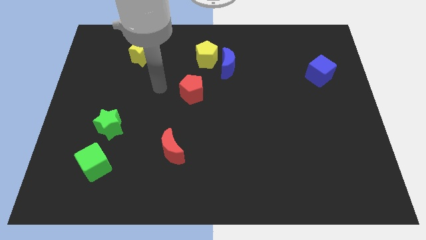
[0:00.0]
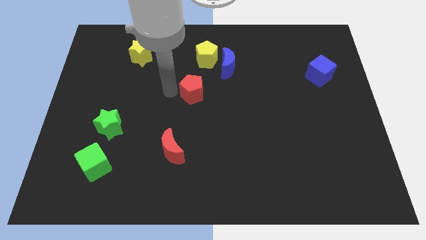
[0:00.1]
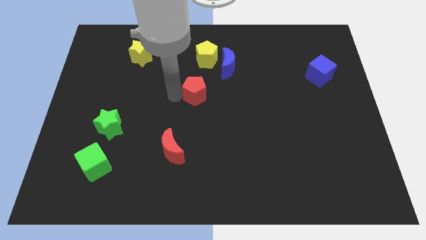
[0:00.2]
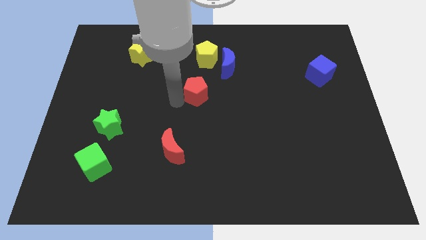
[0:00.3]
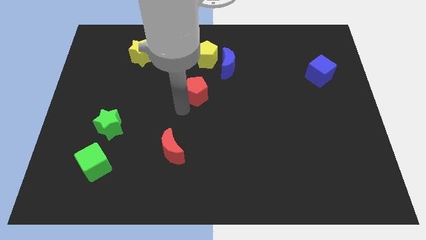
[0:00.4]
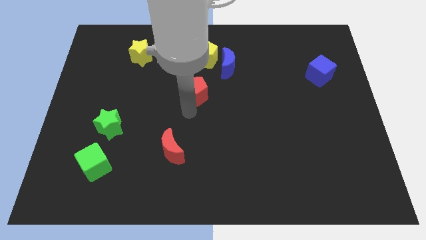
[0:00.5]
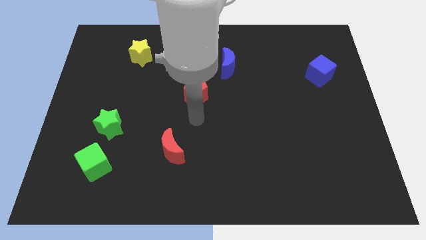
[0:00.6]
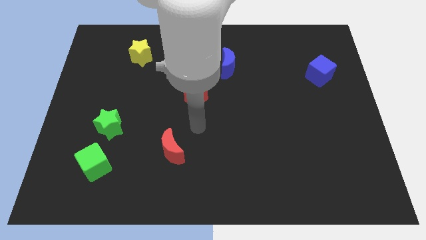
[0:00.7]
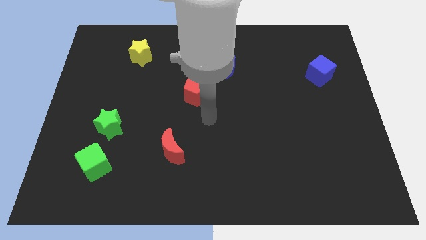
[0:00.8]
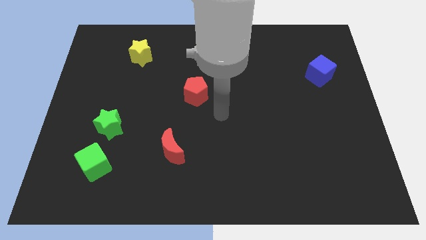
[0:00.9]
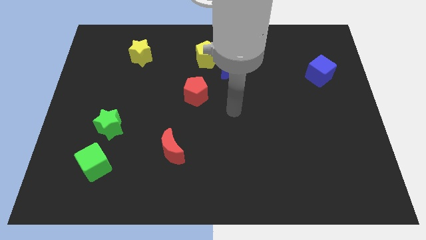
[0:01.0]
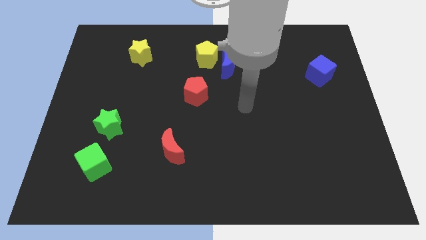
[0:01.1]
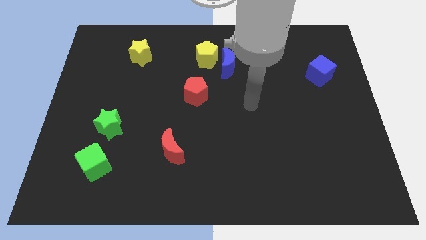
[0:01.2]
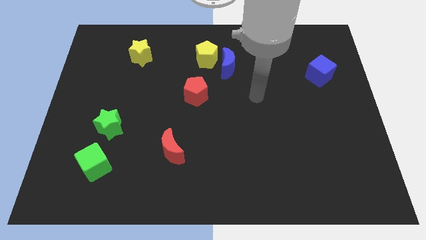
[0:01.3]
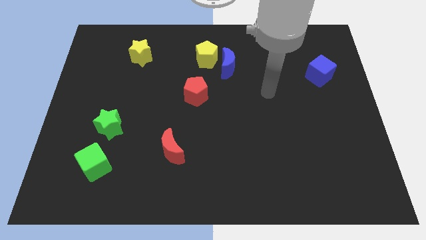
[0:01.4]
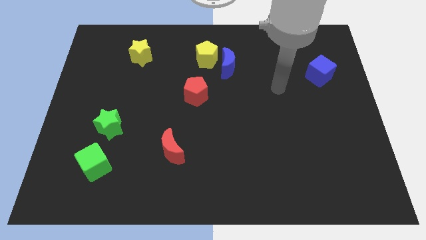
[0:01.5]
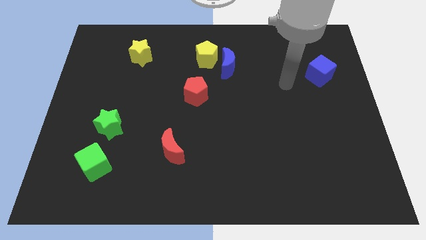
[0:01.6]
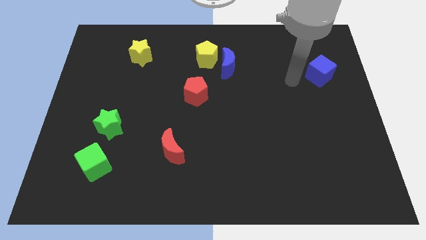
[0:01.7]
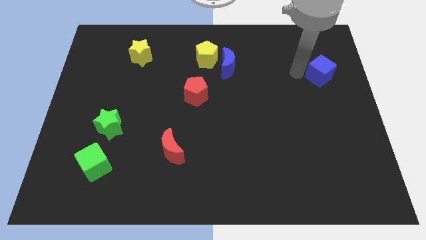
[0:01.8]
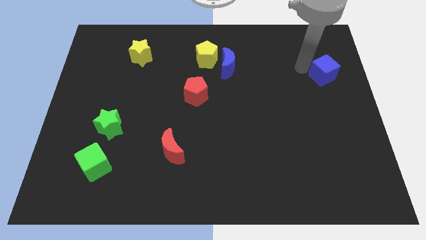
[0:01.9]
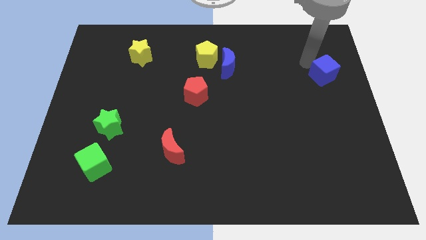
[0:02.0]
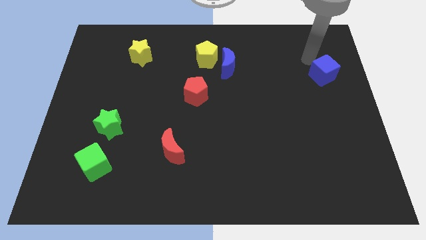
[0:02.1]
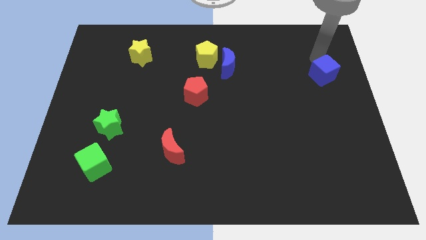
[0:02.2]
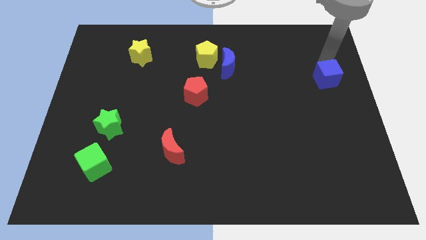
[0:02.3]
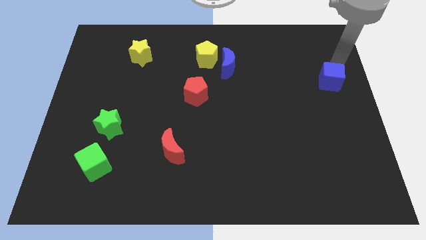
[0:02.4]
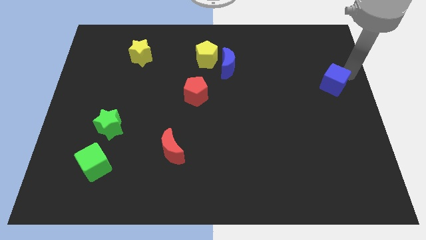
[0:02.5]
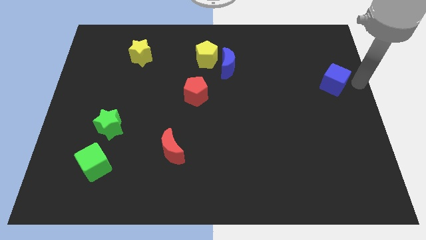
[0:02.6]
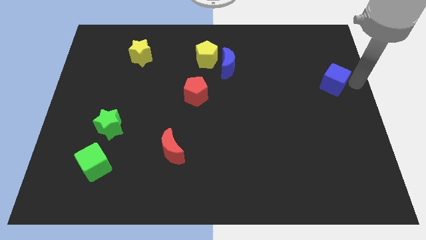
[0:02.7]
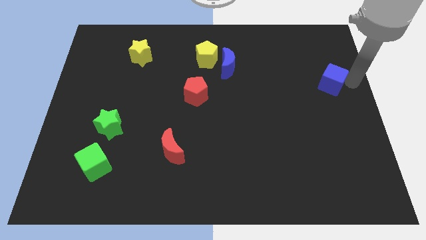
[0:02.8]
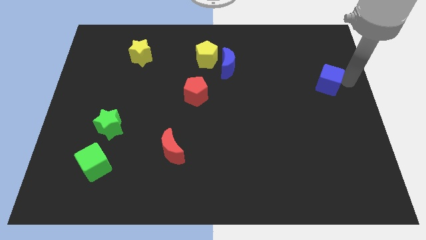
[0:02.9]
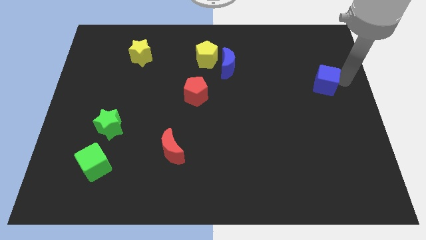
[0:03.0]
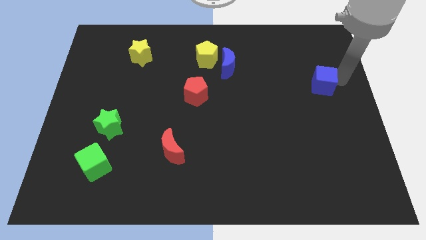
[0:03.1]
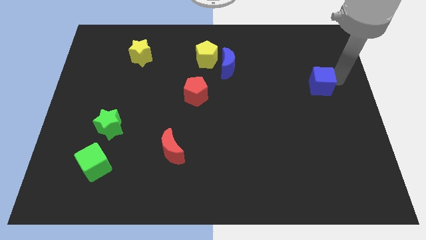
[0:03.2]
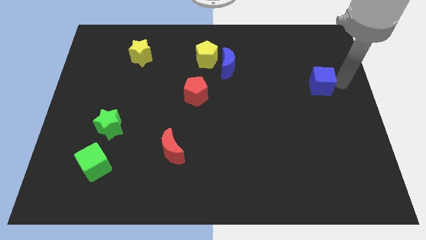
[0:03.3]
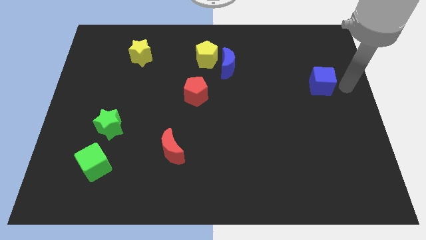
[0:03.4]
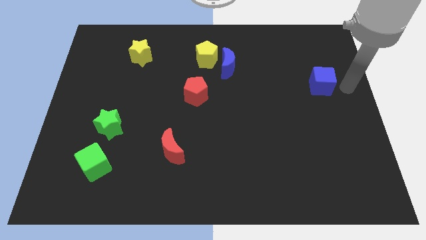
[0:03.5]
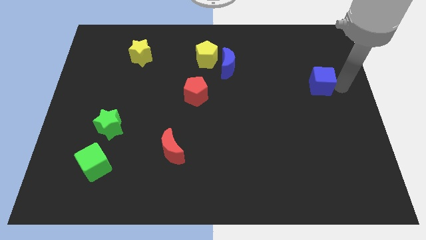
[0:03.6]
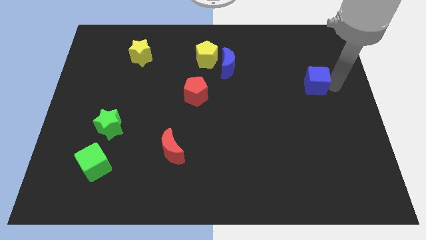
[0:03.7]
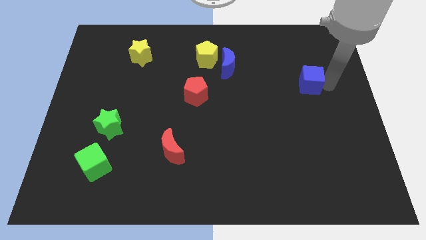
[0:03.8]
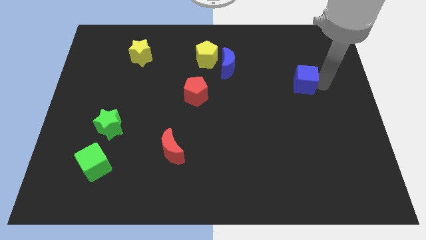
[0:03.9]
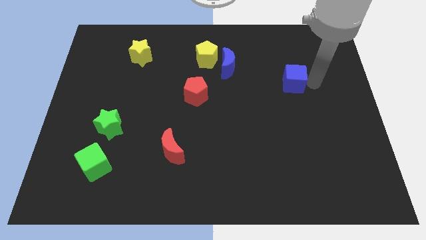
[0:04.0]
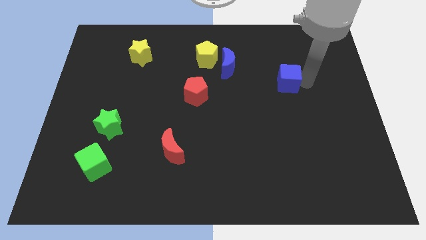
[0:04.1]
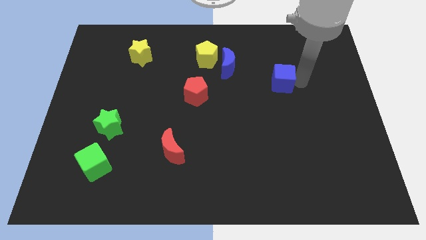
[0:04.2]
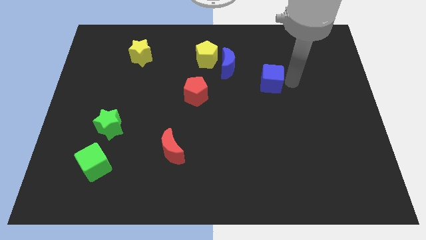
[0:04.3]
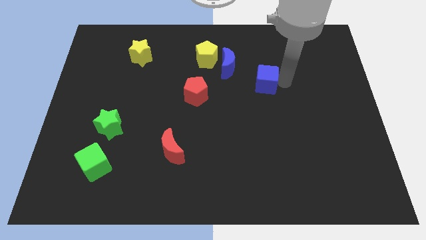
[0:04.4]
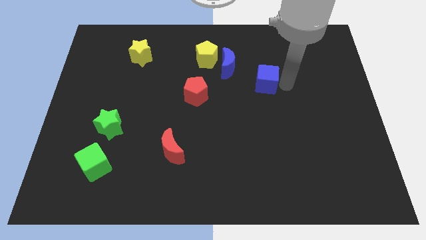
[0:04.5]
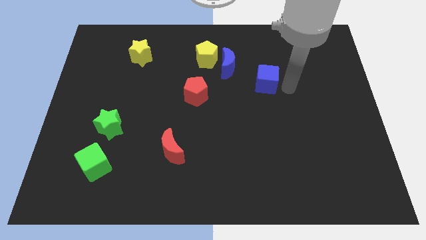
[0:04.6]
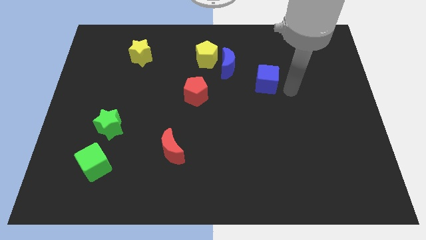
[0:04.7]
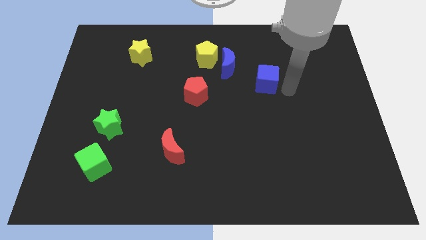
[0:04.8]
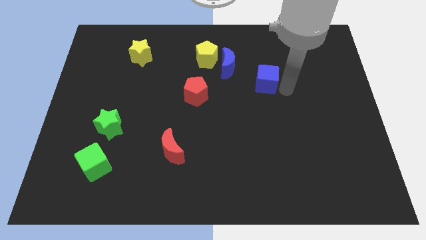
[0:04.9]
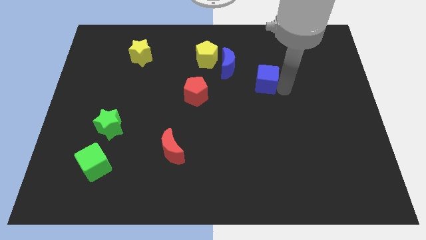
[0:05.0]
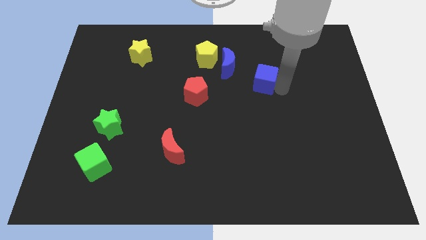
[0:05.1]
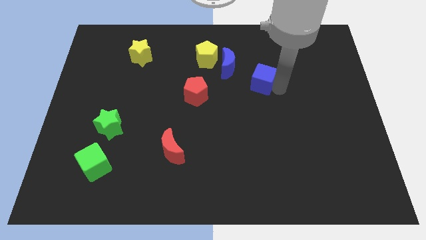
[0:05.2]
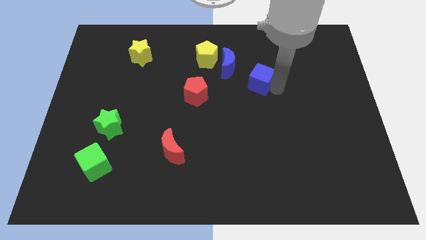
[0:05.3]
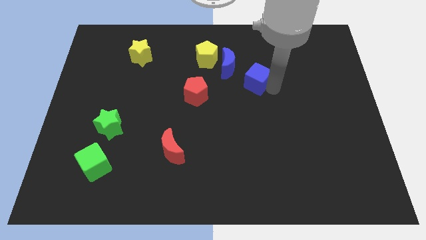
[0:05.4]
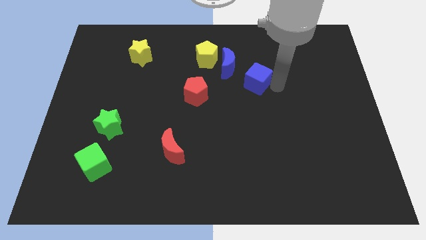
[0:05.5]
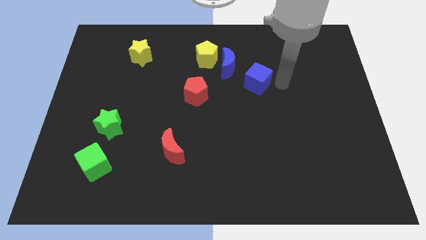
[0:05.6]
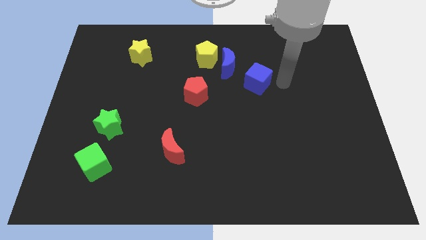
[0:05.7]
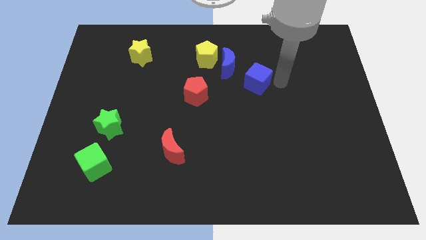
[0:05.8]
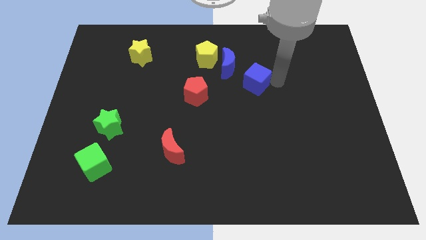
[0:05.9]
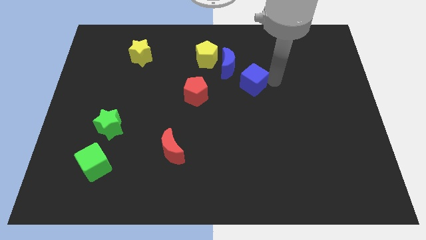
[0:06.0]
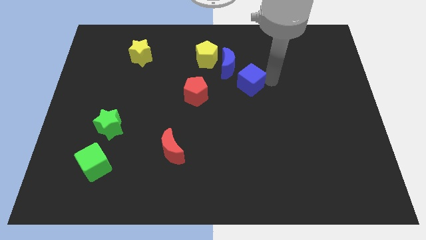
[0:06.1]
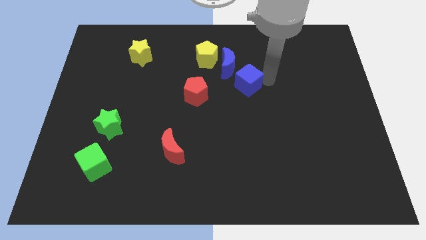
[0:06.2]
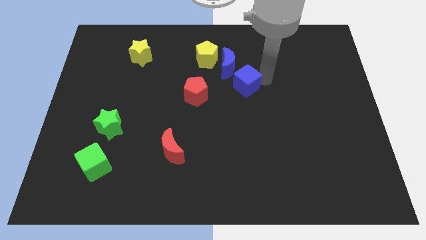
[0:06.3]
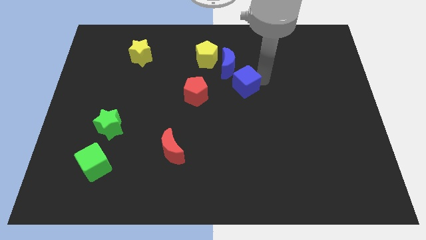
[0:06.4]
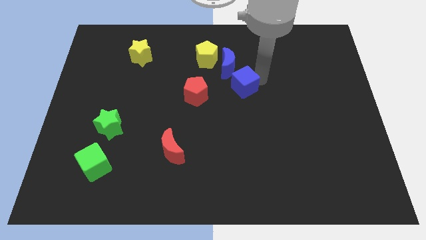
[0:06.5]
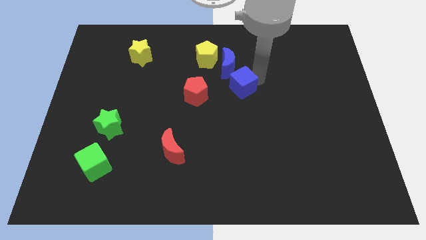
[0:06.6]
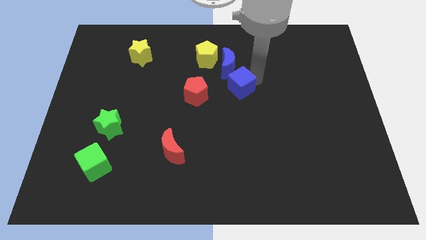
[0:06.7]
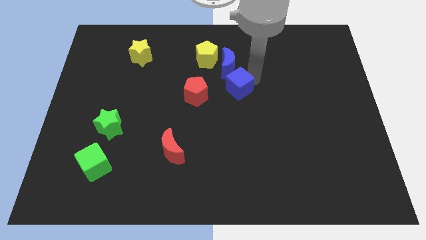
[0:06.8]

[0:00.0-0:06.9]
move the blue cube to the left

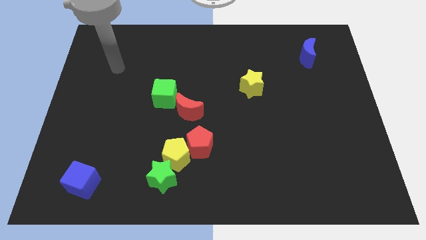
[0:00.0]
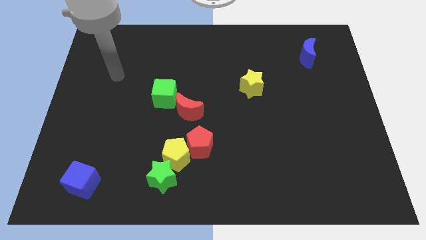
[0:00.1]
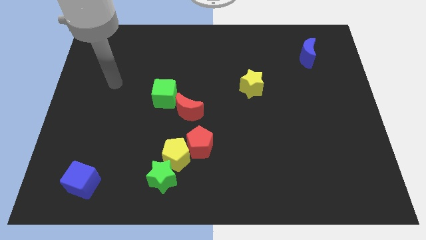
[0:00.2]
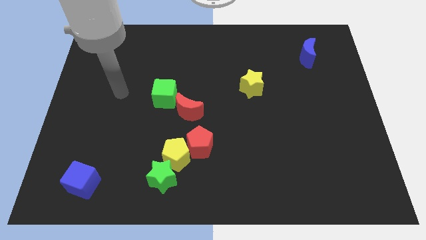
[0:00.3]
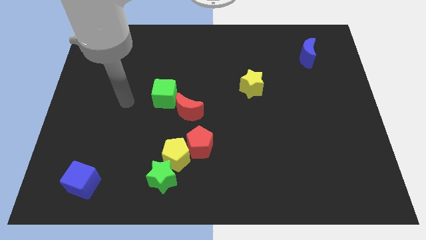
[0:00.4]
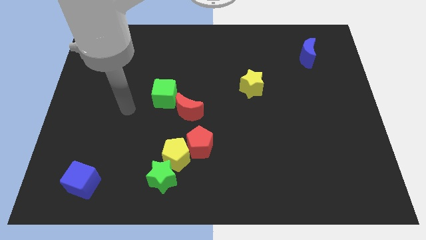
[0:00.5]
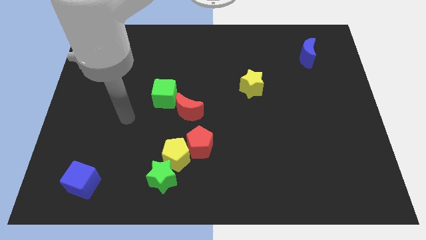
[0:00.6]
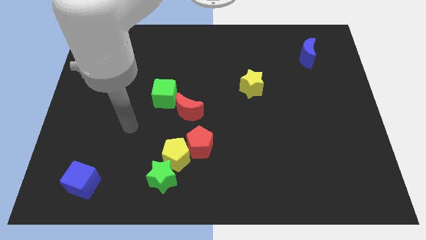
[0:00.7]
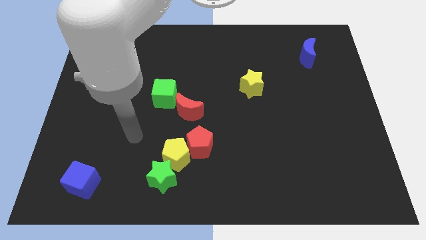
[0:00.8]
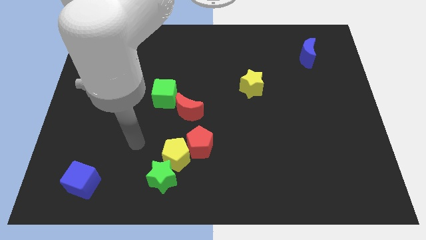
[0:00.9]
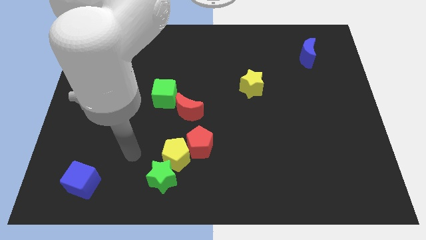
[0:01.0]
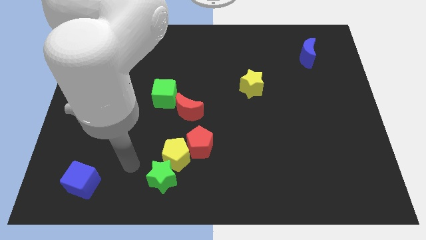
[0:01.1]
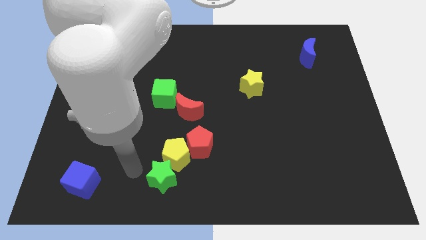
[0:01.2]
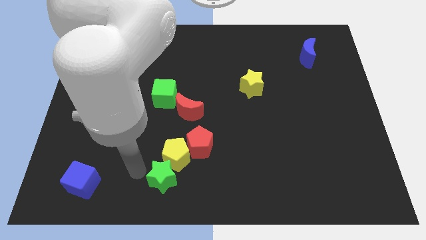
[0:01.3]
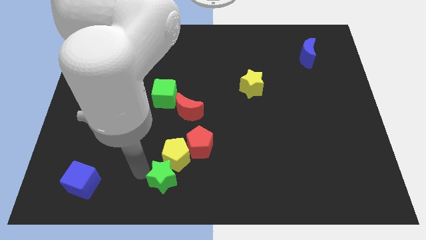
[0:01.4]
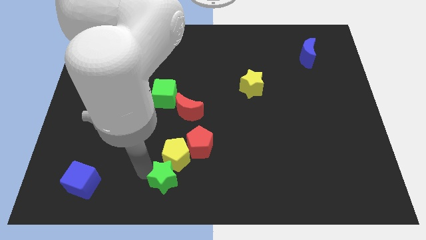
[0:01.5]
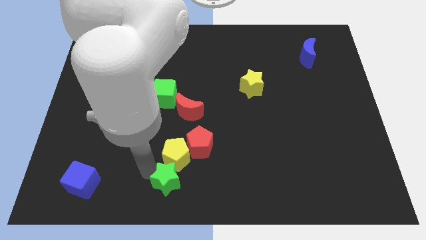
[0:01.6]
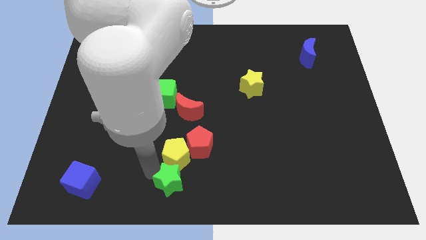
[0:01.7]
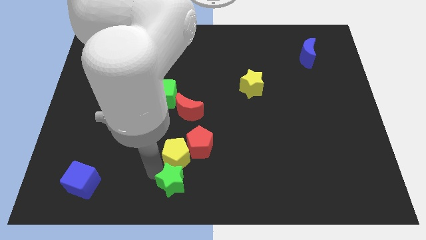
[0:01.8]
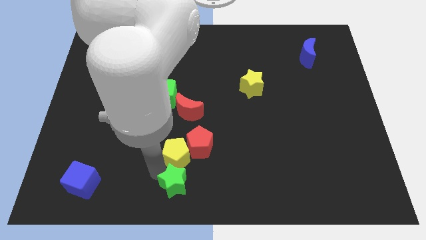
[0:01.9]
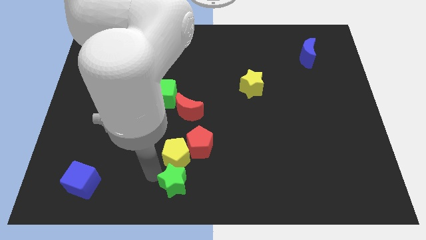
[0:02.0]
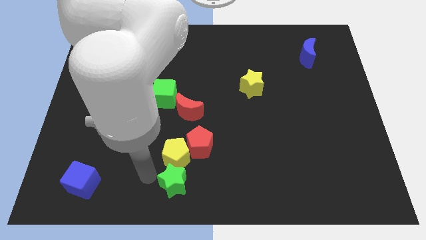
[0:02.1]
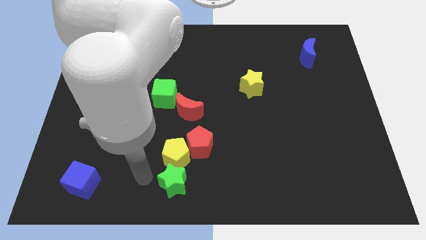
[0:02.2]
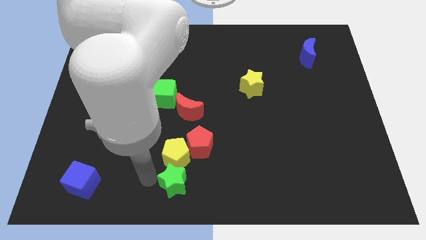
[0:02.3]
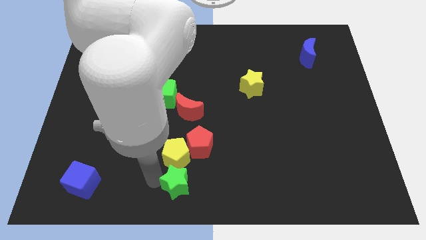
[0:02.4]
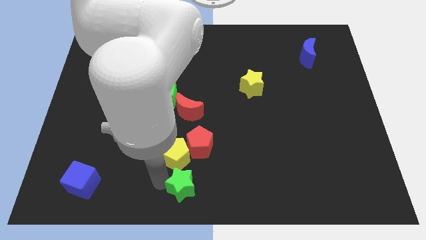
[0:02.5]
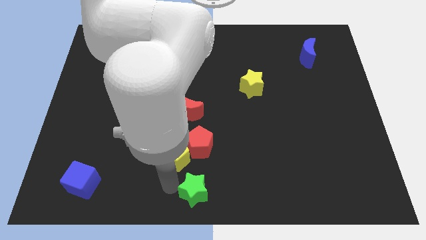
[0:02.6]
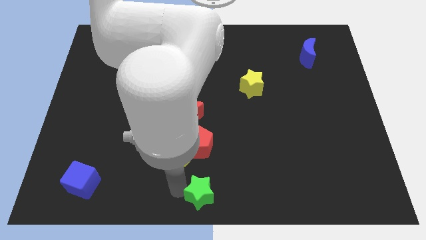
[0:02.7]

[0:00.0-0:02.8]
move the green star to the right slightly
